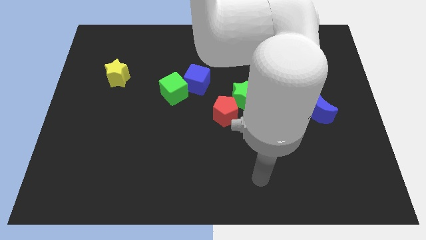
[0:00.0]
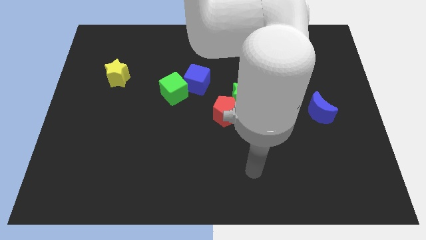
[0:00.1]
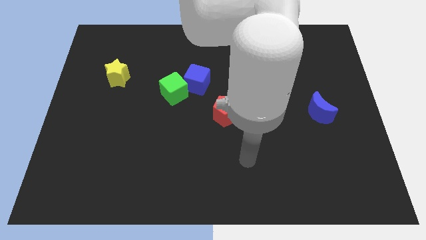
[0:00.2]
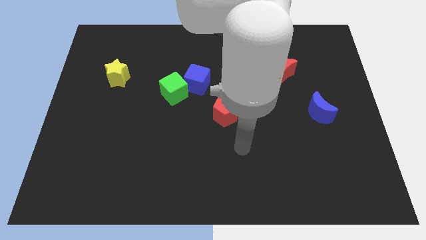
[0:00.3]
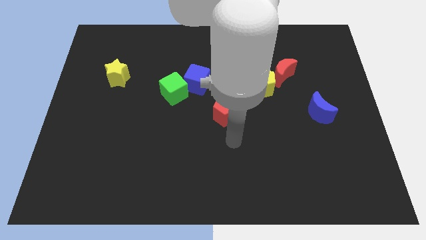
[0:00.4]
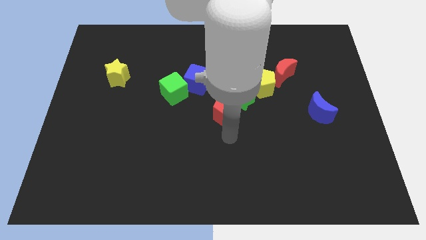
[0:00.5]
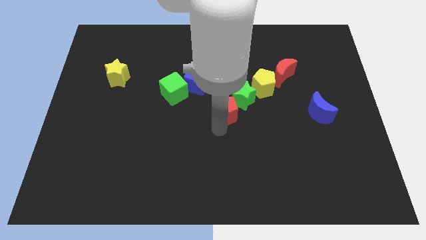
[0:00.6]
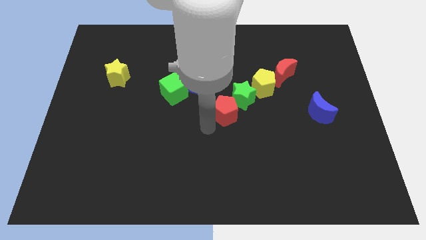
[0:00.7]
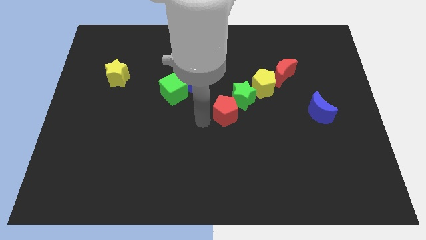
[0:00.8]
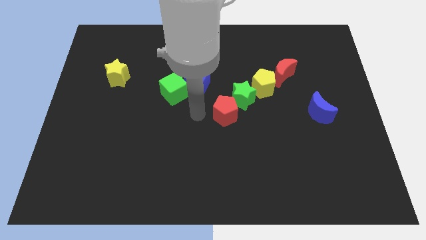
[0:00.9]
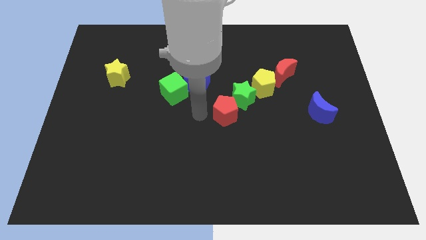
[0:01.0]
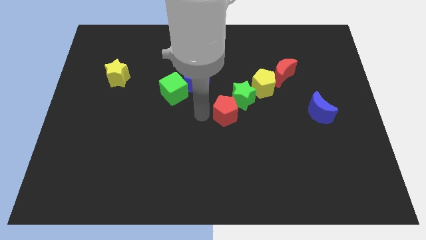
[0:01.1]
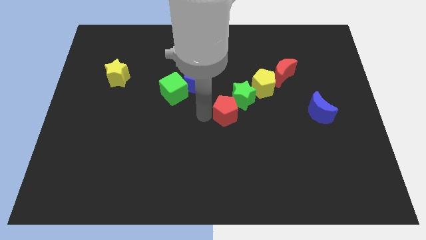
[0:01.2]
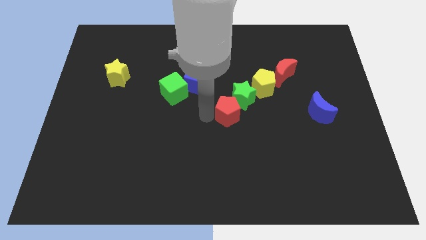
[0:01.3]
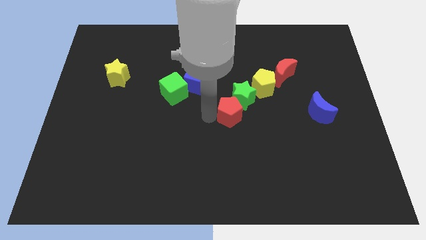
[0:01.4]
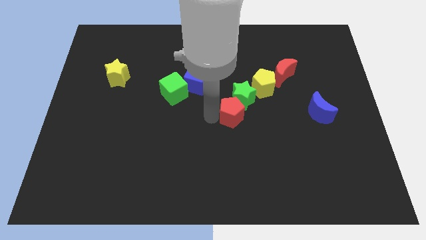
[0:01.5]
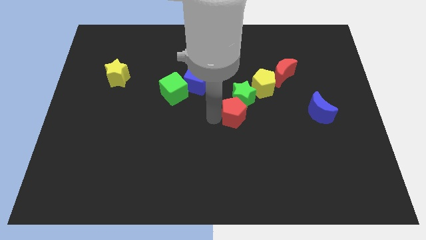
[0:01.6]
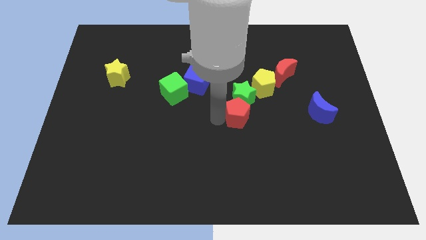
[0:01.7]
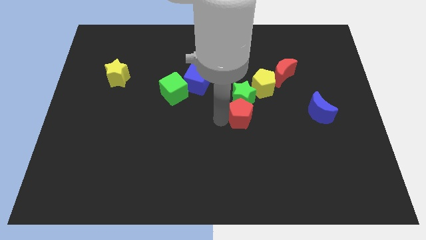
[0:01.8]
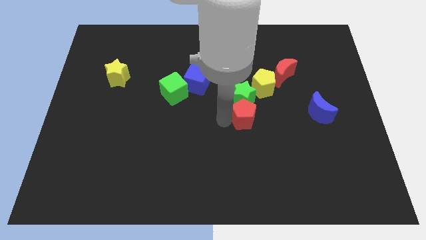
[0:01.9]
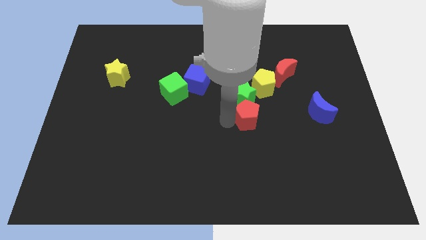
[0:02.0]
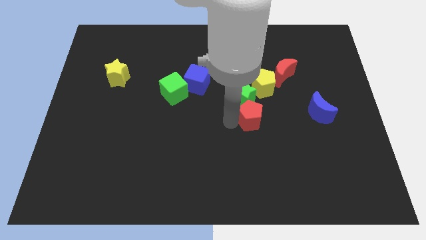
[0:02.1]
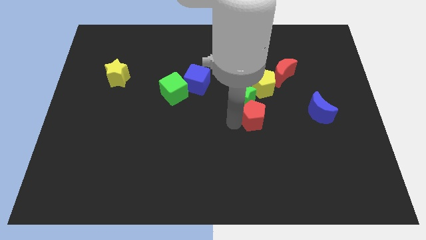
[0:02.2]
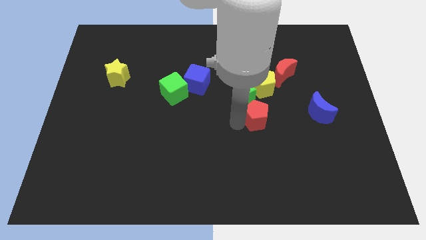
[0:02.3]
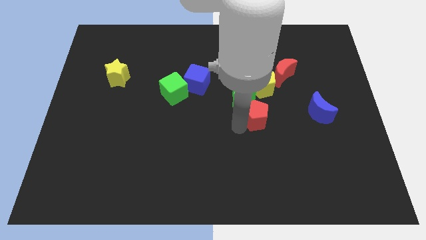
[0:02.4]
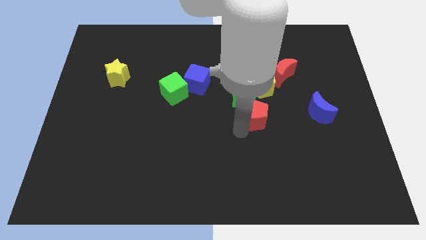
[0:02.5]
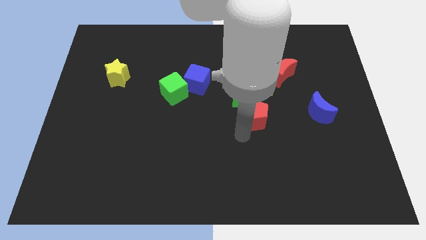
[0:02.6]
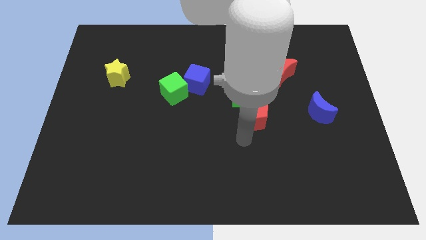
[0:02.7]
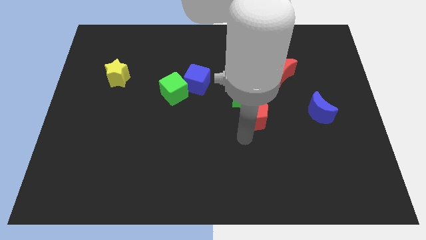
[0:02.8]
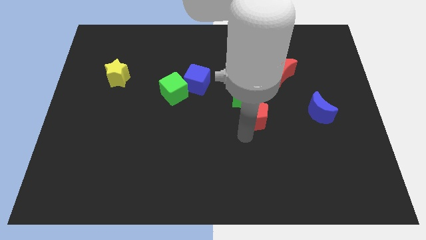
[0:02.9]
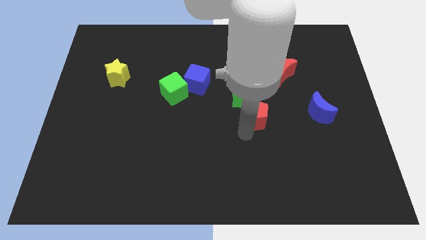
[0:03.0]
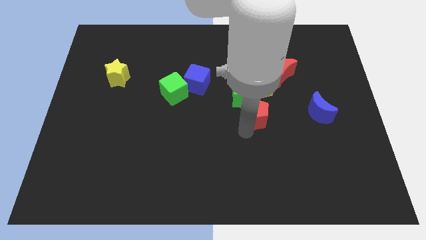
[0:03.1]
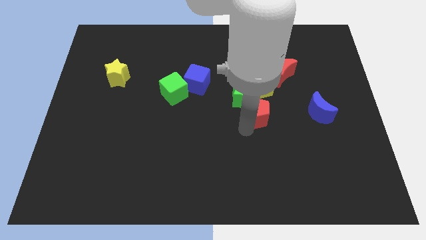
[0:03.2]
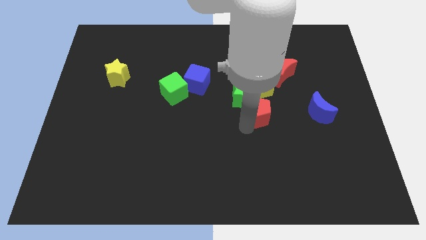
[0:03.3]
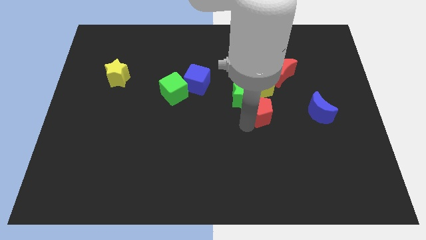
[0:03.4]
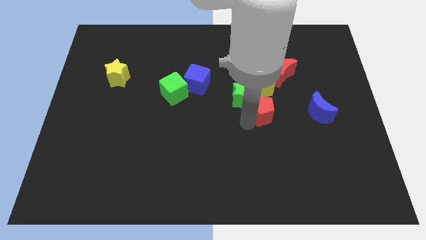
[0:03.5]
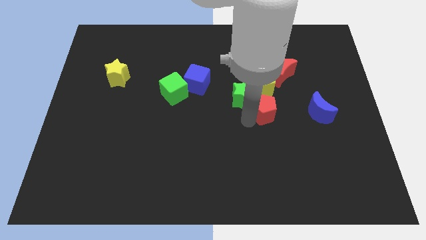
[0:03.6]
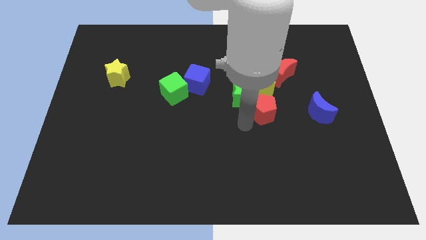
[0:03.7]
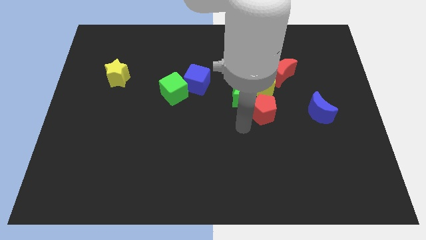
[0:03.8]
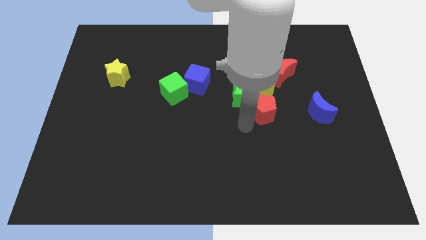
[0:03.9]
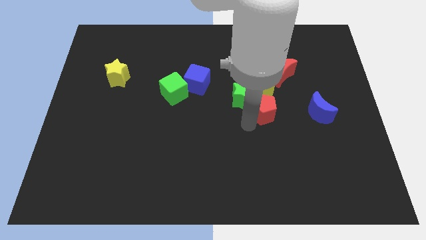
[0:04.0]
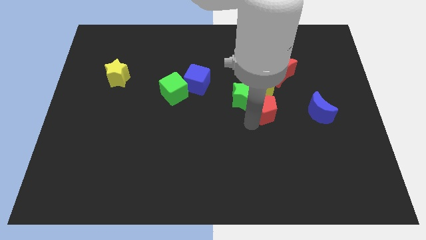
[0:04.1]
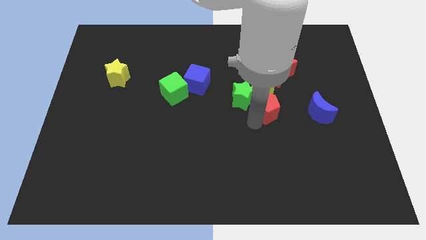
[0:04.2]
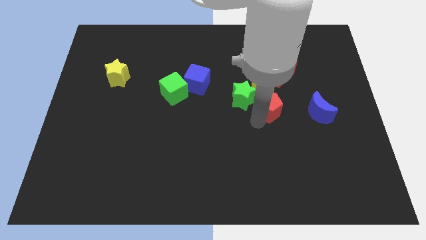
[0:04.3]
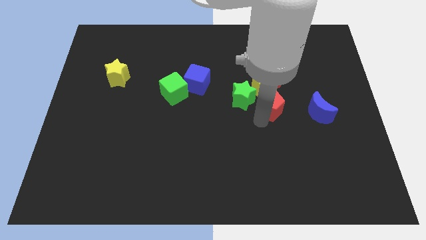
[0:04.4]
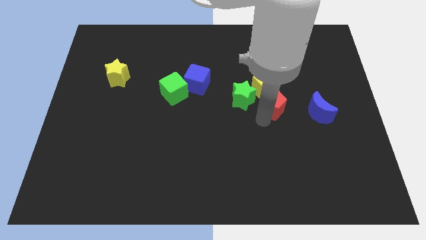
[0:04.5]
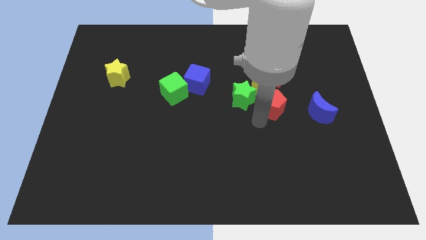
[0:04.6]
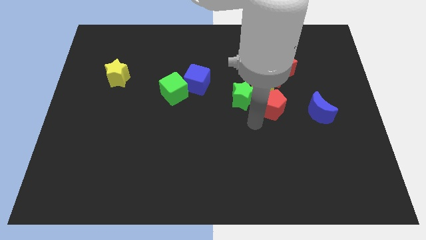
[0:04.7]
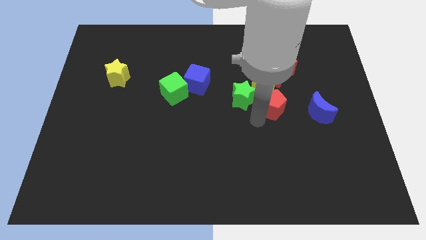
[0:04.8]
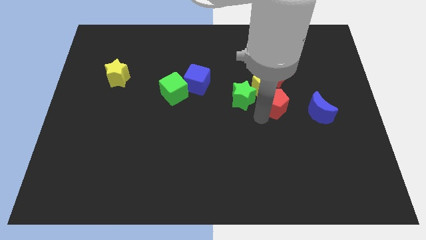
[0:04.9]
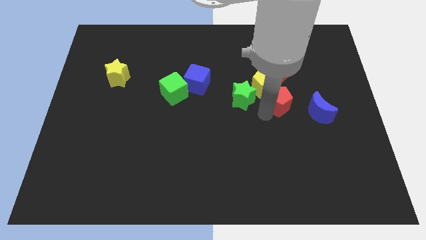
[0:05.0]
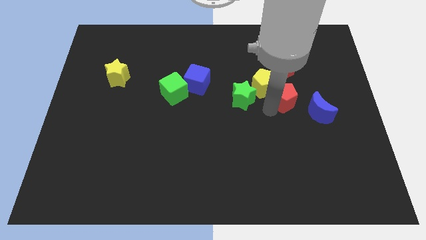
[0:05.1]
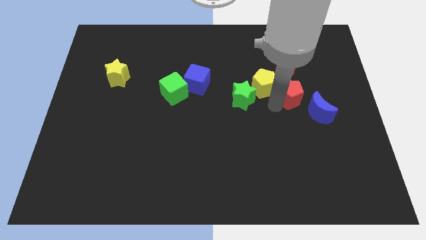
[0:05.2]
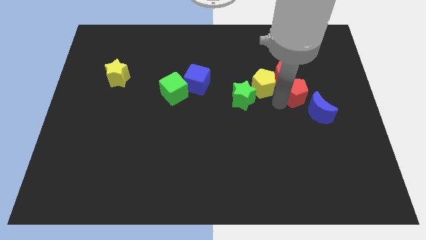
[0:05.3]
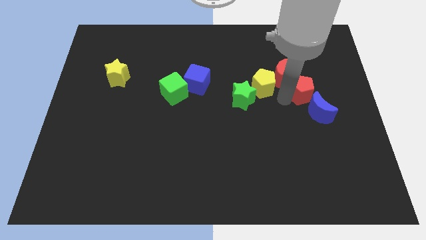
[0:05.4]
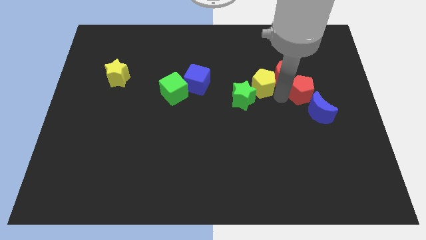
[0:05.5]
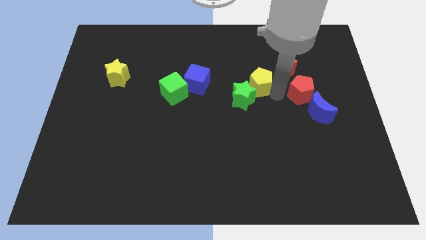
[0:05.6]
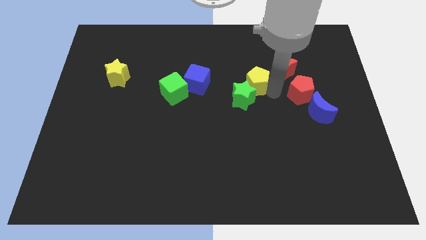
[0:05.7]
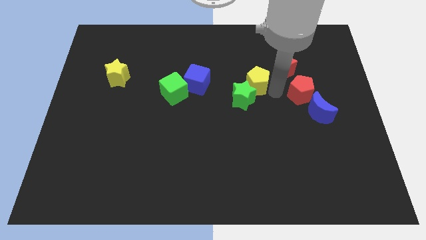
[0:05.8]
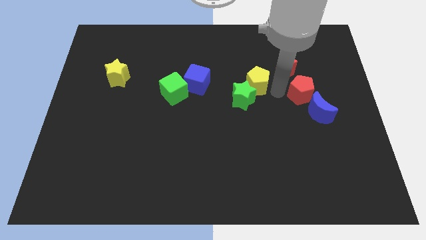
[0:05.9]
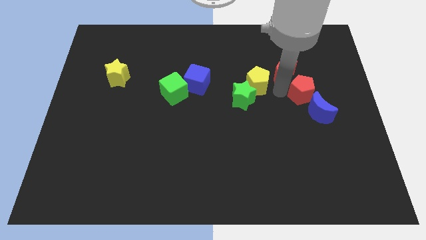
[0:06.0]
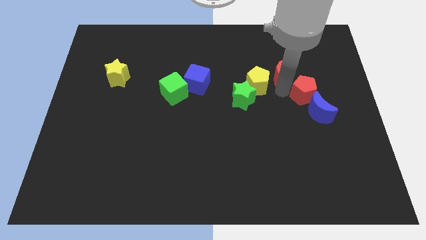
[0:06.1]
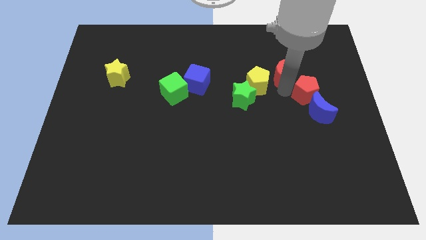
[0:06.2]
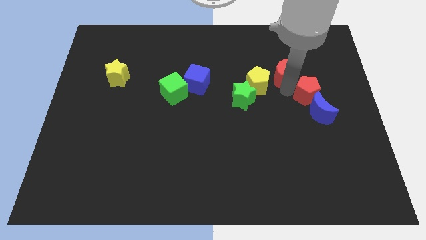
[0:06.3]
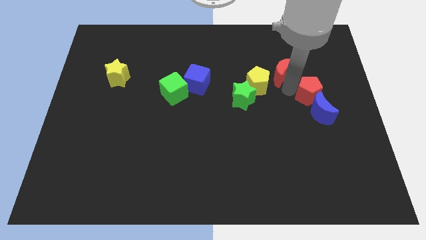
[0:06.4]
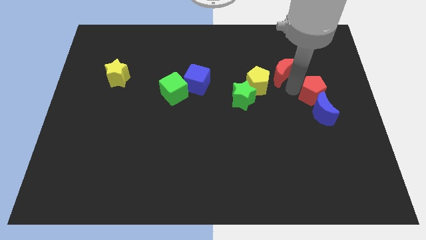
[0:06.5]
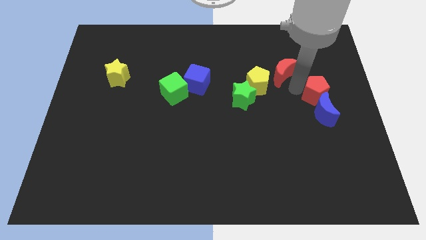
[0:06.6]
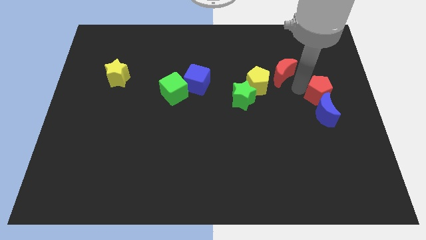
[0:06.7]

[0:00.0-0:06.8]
slide the red pentagon to the center right
